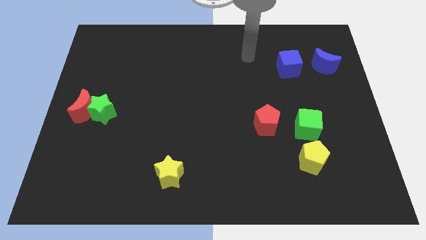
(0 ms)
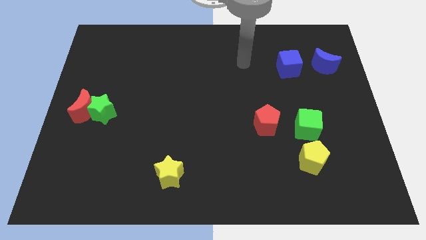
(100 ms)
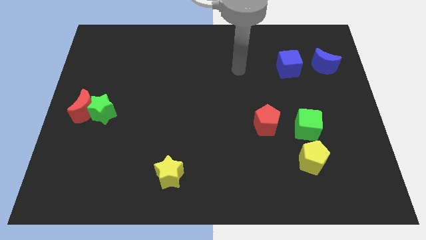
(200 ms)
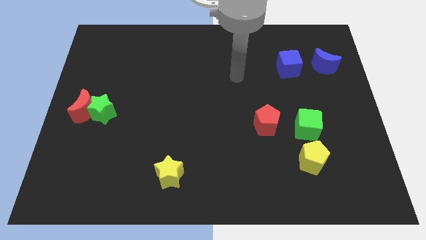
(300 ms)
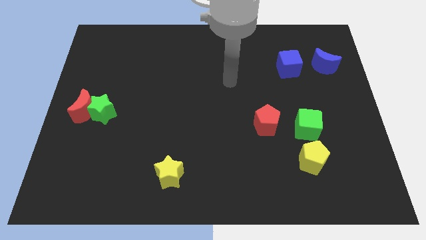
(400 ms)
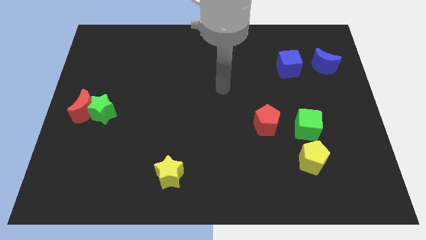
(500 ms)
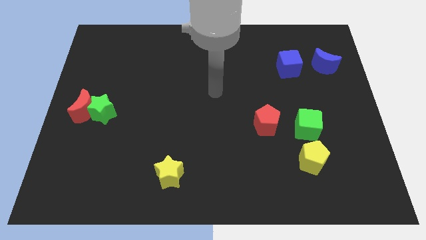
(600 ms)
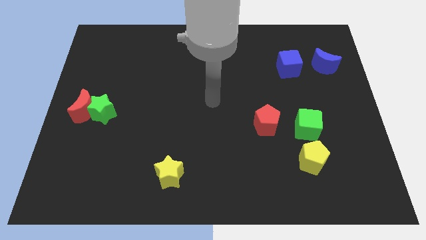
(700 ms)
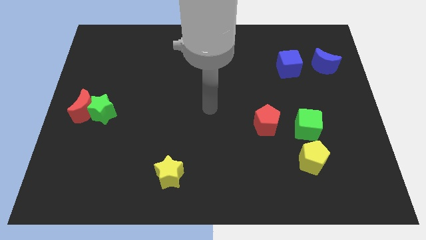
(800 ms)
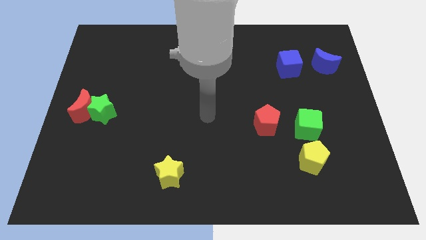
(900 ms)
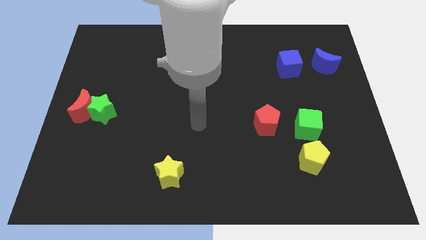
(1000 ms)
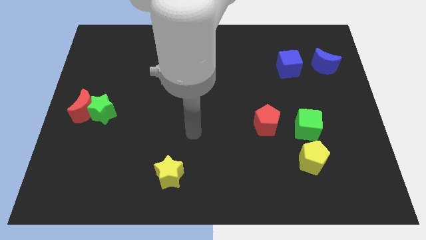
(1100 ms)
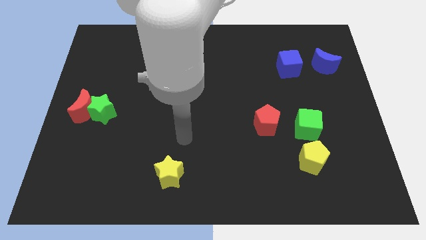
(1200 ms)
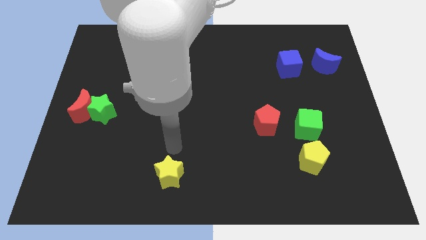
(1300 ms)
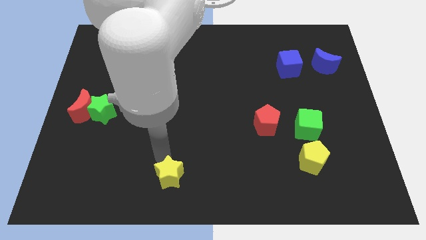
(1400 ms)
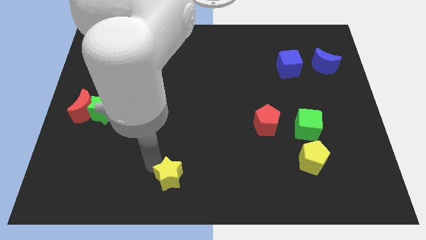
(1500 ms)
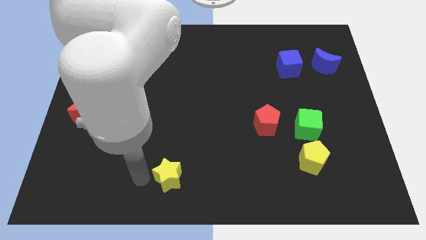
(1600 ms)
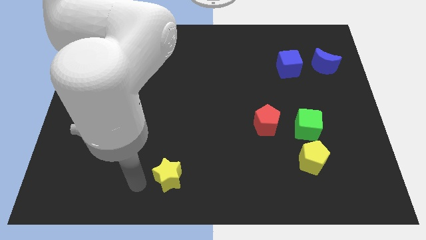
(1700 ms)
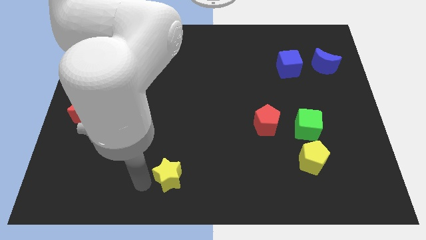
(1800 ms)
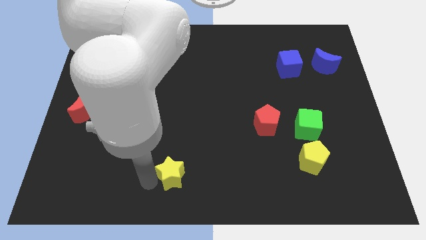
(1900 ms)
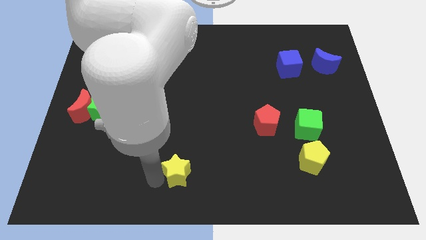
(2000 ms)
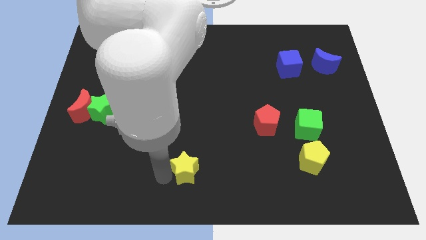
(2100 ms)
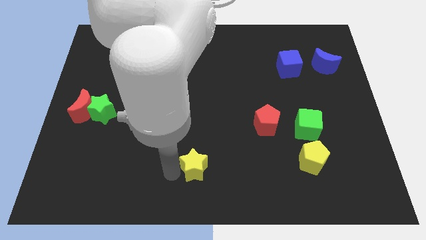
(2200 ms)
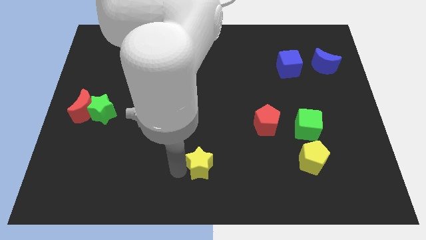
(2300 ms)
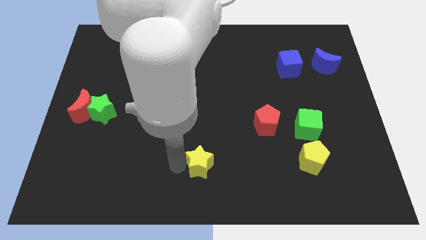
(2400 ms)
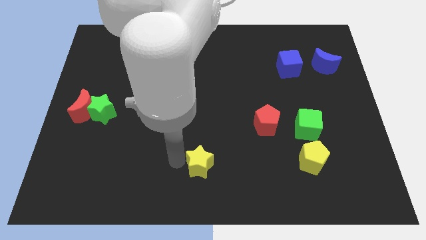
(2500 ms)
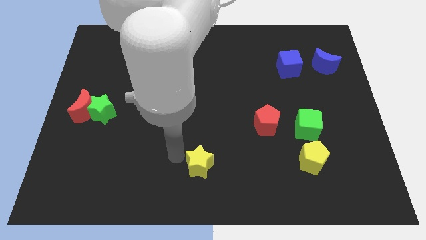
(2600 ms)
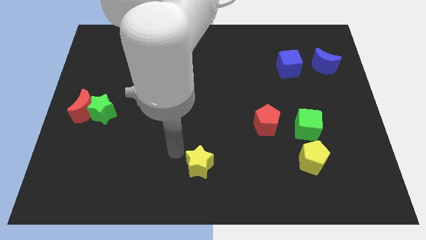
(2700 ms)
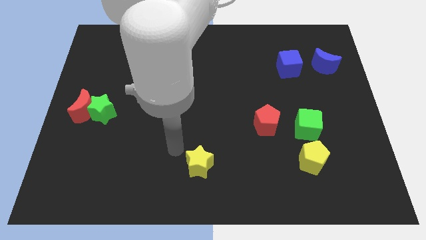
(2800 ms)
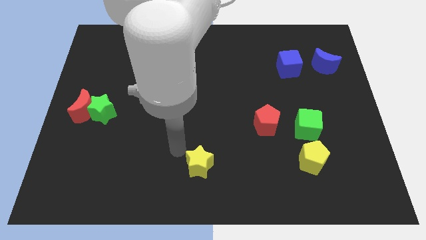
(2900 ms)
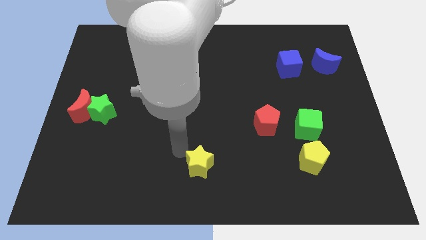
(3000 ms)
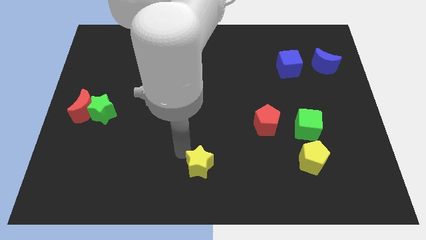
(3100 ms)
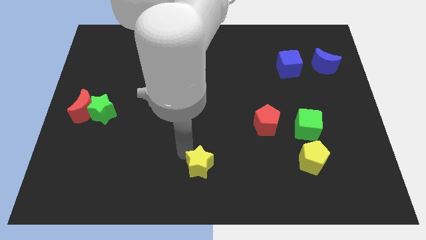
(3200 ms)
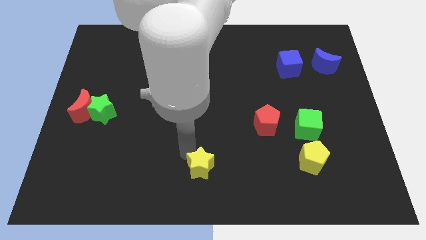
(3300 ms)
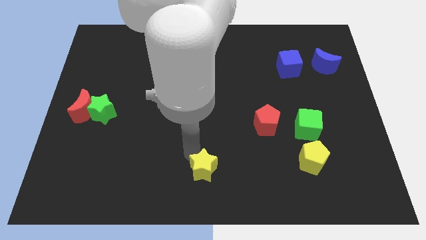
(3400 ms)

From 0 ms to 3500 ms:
move the yellow star right somewhat

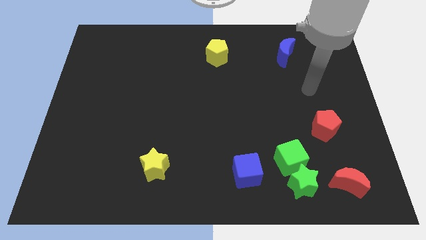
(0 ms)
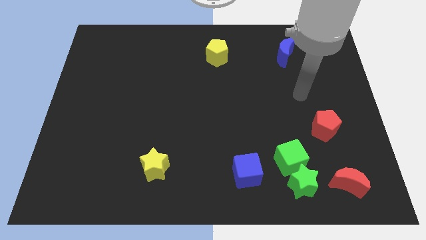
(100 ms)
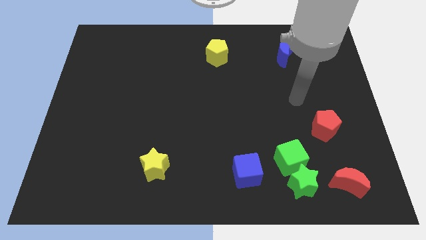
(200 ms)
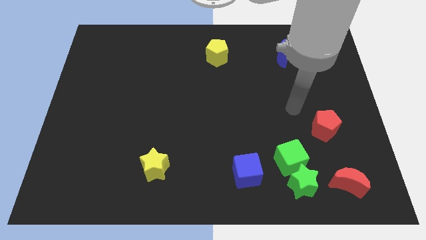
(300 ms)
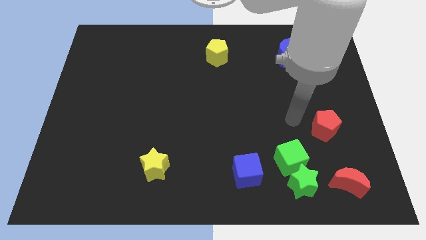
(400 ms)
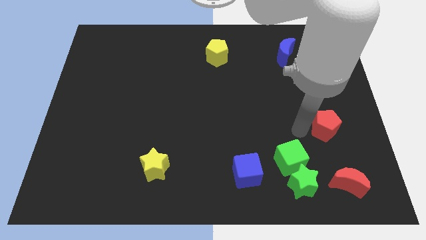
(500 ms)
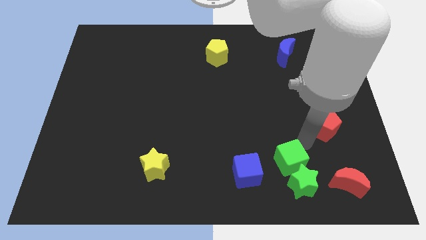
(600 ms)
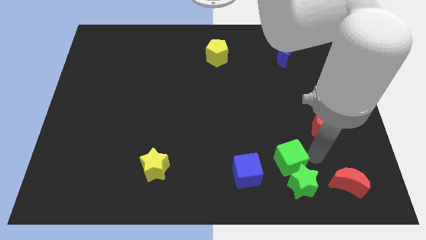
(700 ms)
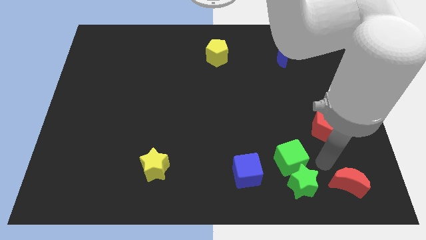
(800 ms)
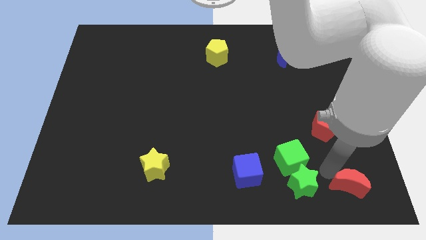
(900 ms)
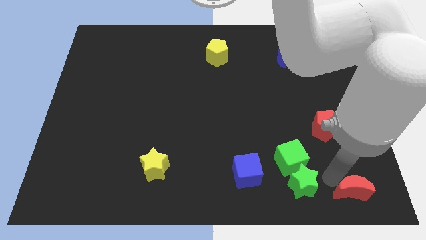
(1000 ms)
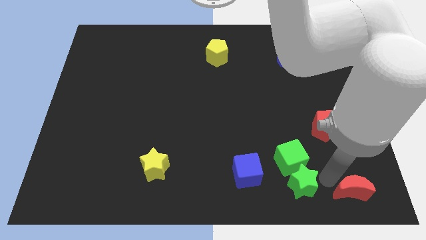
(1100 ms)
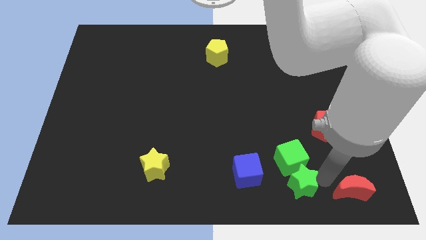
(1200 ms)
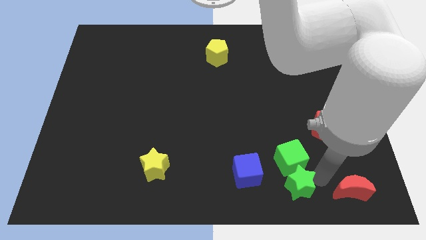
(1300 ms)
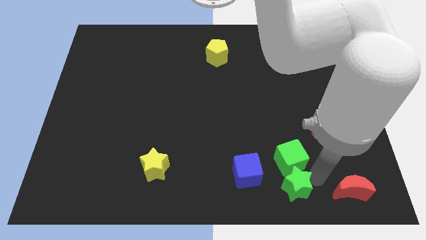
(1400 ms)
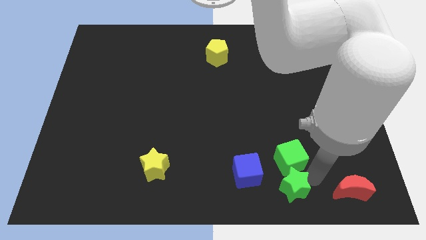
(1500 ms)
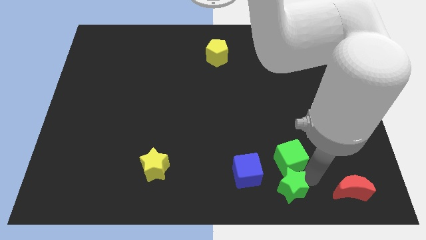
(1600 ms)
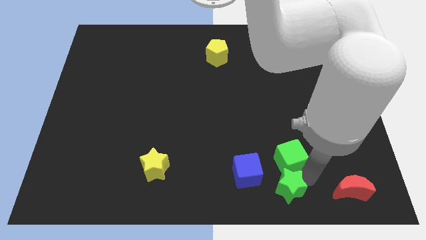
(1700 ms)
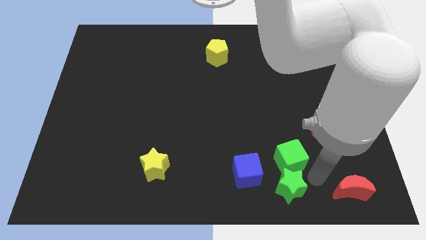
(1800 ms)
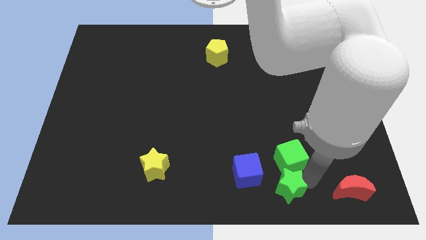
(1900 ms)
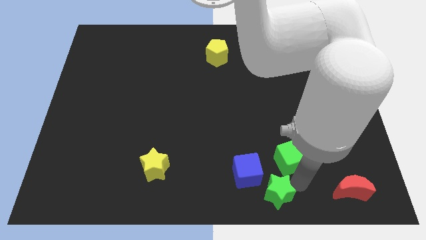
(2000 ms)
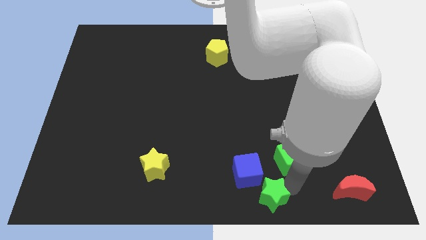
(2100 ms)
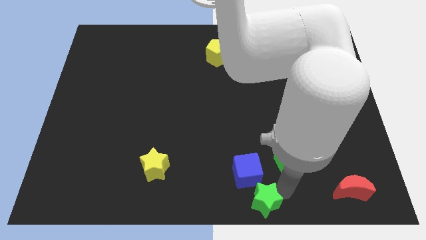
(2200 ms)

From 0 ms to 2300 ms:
move the green star somewhat left

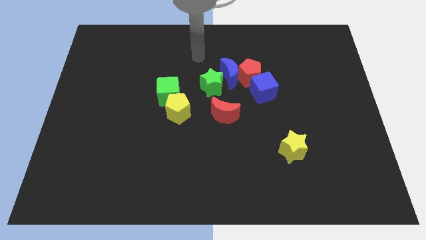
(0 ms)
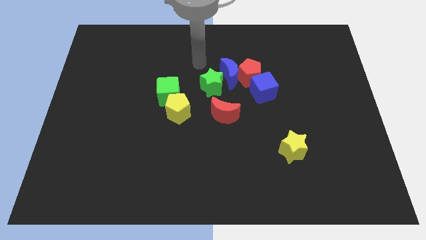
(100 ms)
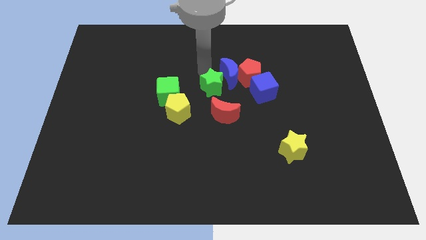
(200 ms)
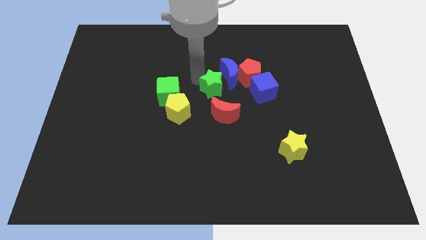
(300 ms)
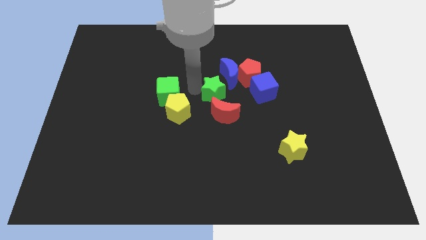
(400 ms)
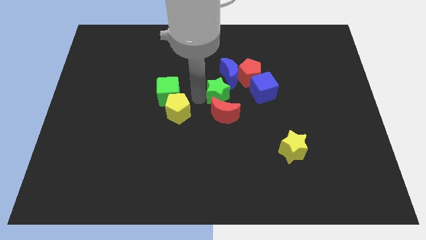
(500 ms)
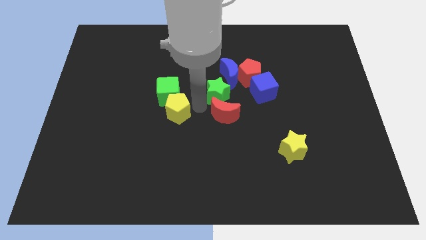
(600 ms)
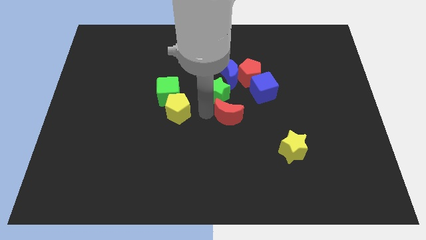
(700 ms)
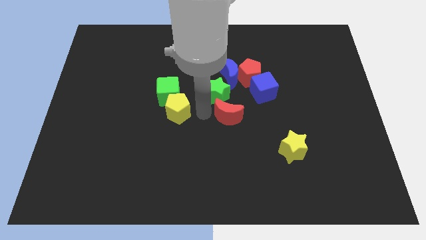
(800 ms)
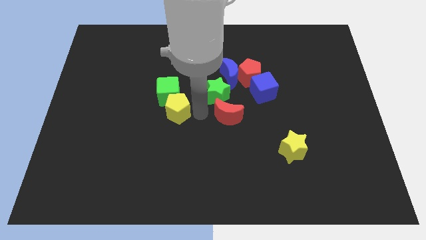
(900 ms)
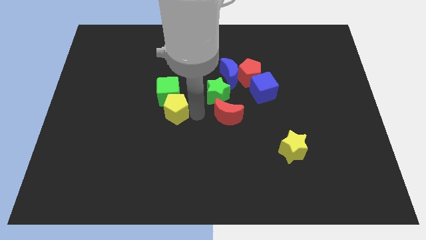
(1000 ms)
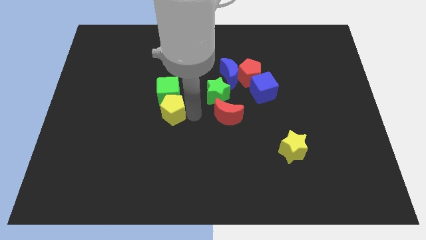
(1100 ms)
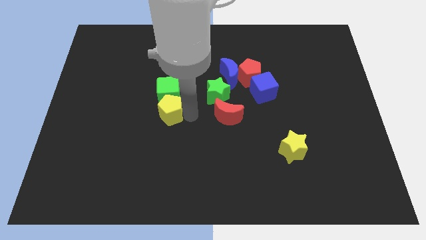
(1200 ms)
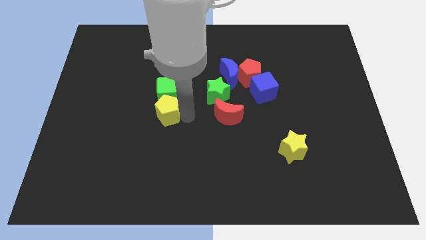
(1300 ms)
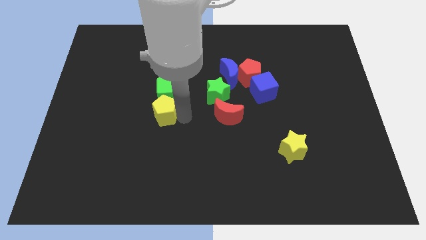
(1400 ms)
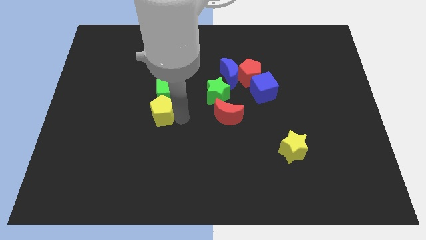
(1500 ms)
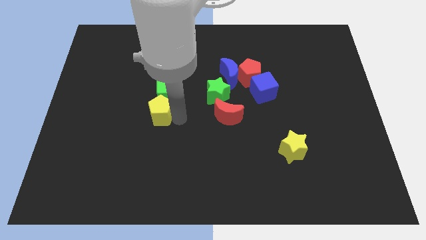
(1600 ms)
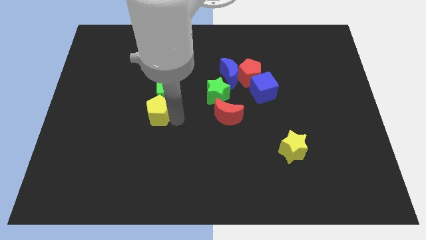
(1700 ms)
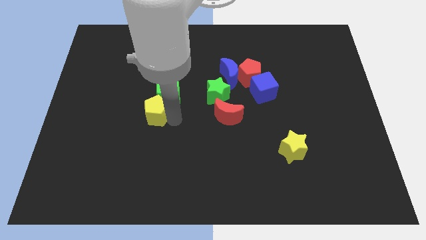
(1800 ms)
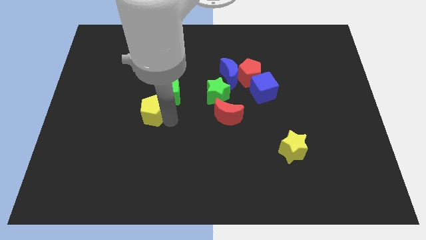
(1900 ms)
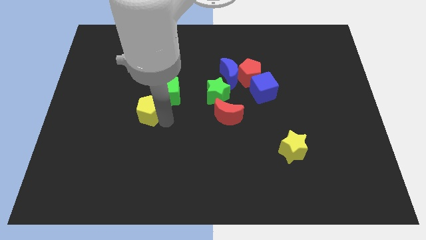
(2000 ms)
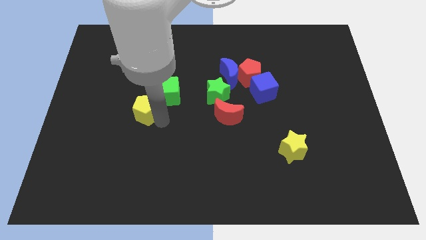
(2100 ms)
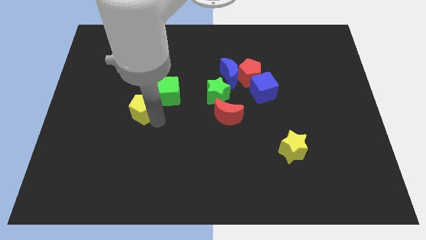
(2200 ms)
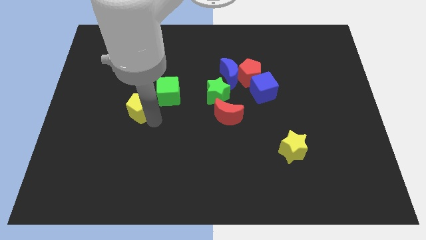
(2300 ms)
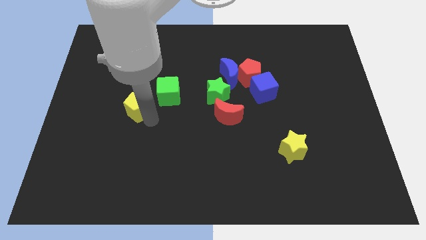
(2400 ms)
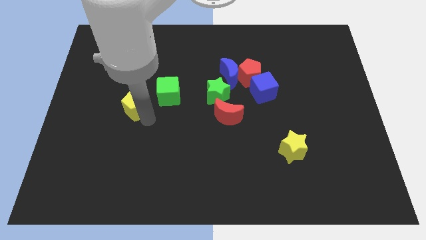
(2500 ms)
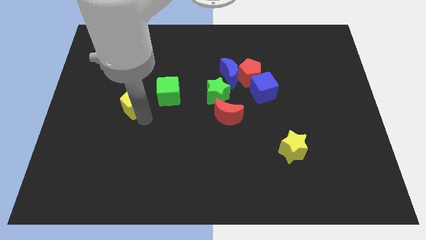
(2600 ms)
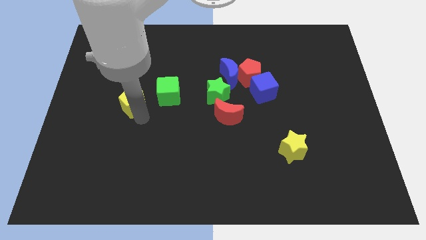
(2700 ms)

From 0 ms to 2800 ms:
slide the yellow pentagon a little up and to the left diagonally

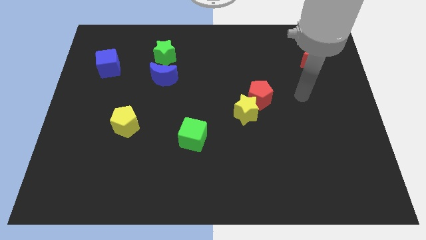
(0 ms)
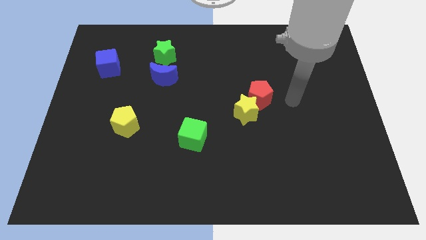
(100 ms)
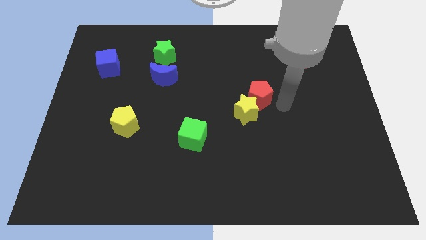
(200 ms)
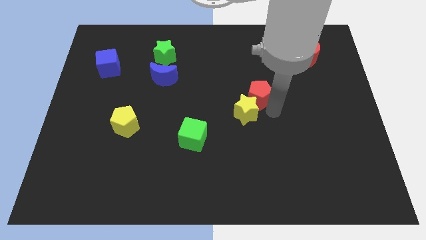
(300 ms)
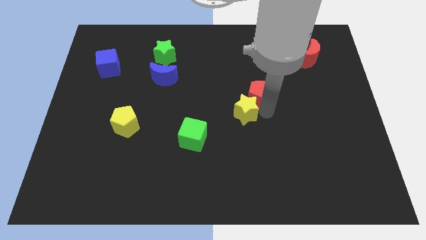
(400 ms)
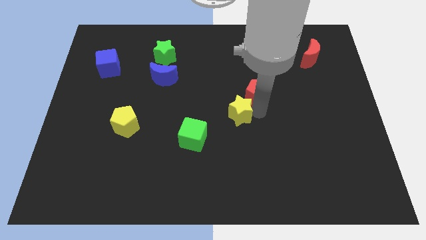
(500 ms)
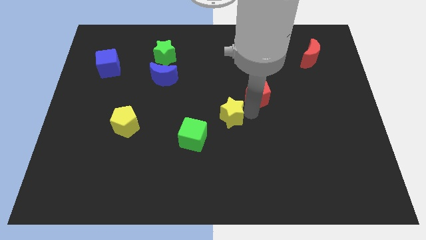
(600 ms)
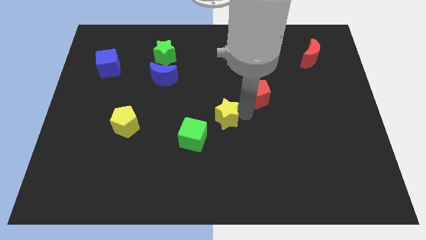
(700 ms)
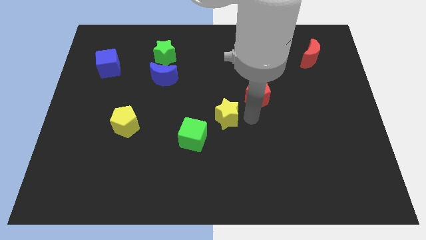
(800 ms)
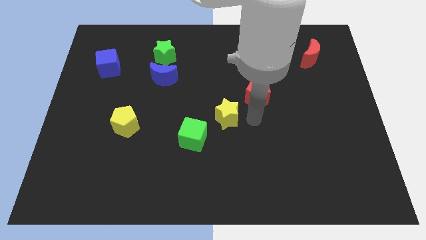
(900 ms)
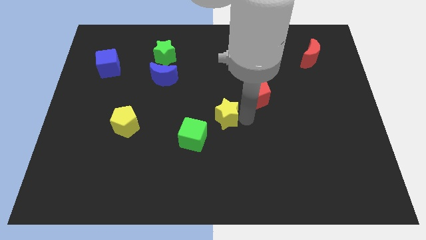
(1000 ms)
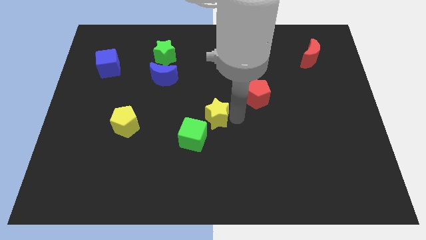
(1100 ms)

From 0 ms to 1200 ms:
push the yellow star left somewhat
